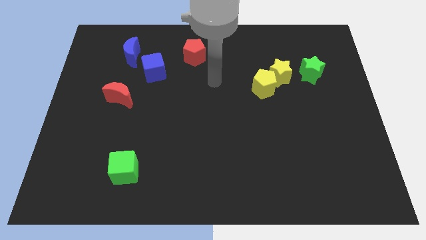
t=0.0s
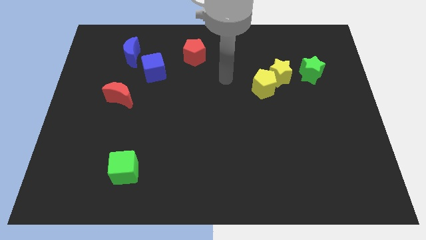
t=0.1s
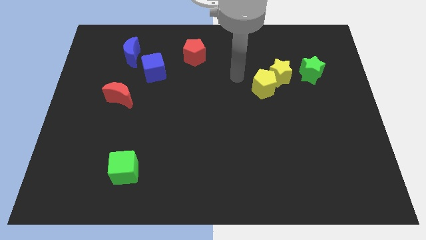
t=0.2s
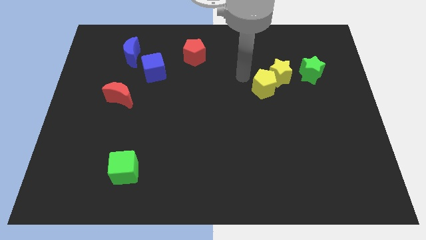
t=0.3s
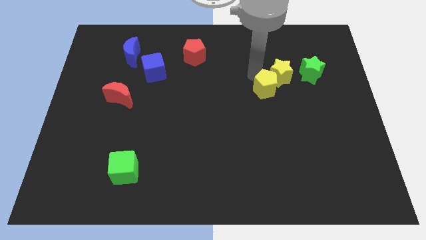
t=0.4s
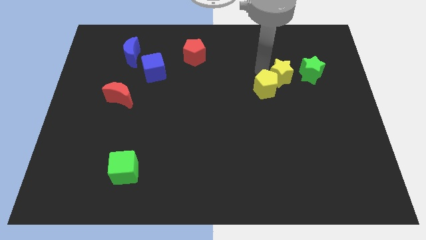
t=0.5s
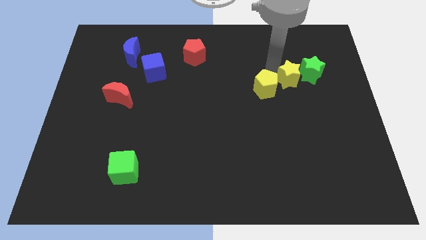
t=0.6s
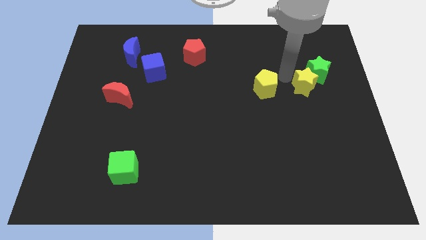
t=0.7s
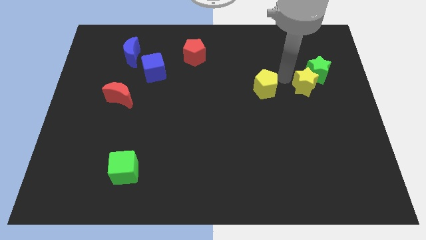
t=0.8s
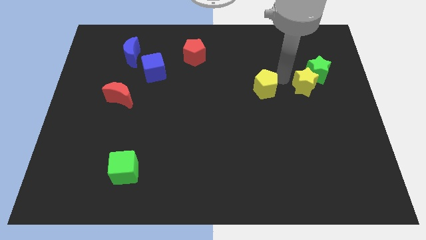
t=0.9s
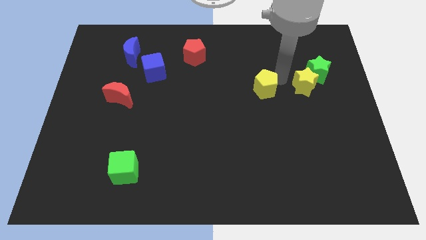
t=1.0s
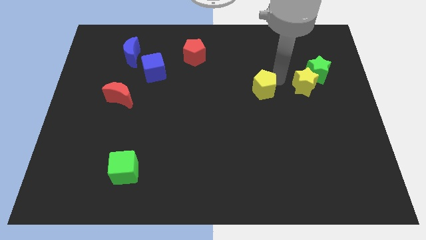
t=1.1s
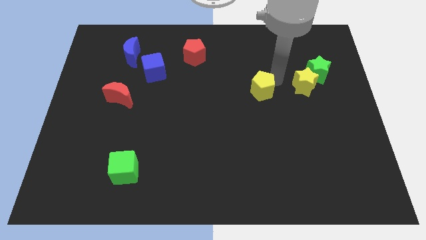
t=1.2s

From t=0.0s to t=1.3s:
move the yellow pentagon away from the yellow star

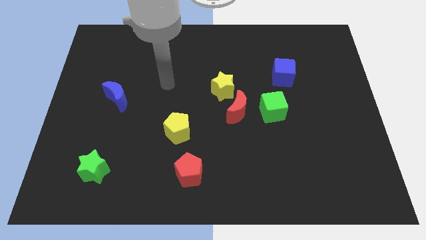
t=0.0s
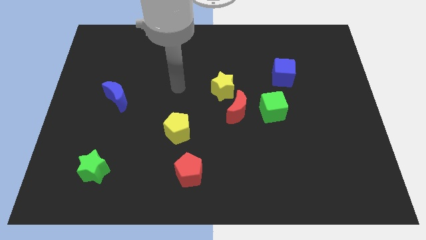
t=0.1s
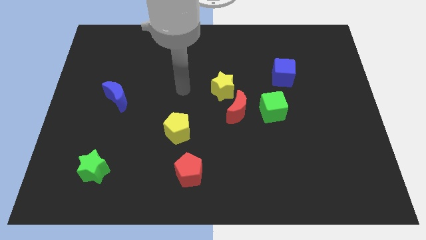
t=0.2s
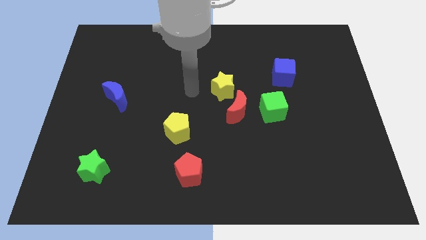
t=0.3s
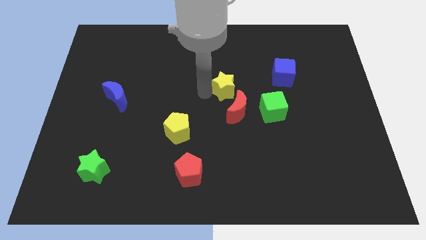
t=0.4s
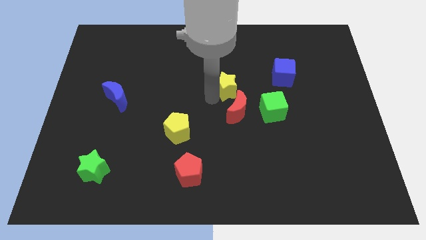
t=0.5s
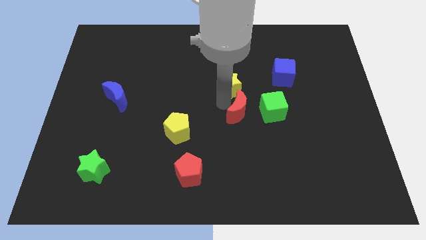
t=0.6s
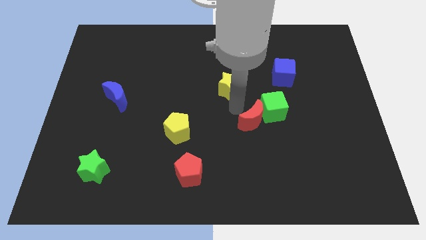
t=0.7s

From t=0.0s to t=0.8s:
pull the yellow star apart from the red moon

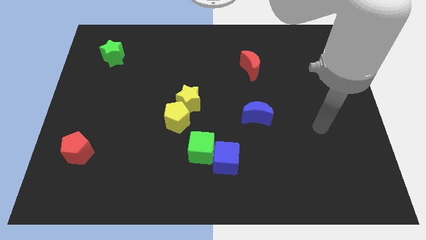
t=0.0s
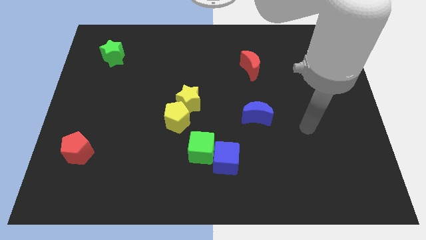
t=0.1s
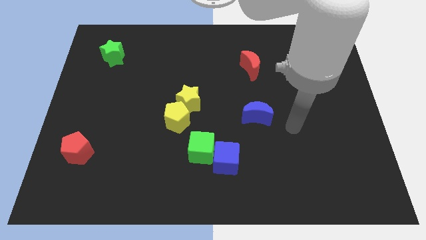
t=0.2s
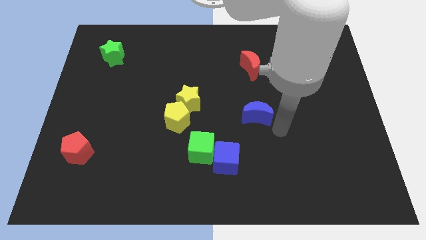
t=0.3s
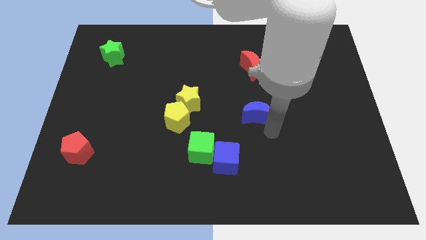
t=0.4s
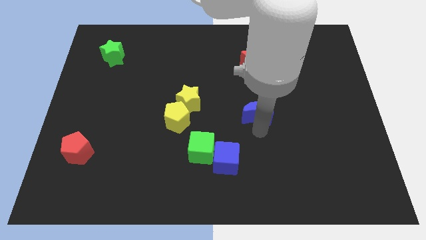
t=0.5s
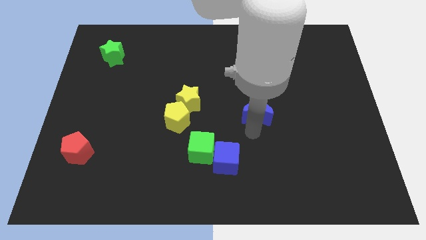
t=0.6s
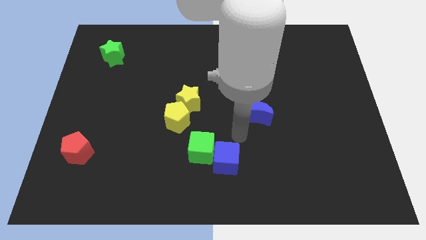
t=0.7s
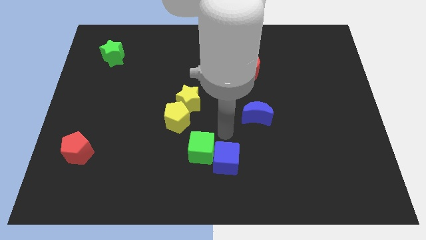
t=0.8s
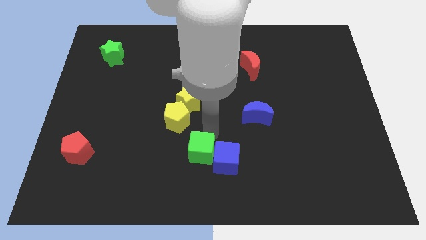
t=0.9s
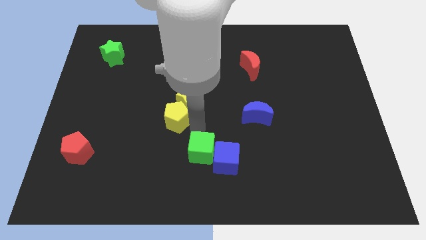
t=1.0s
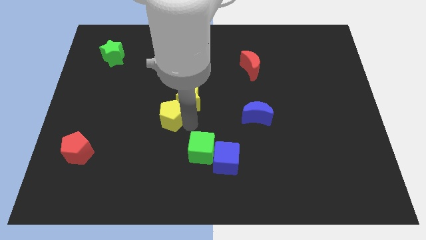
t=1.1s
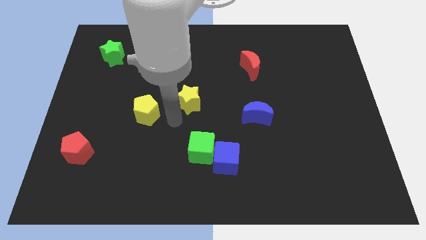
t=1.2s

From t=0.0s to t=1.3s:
pull the yellow star apart from the yellow pentagon

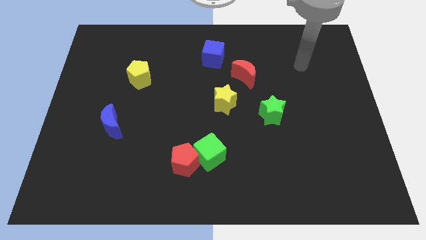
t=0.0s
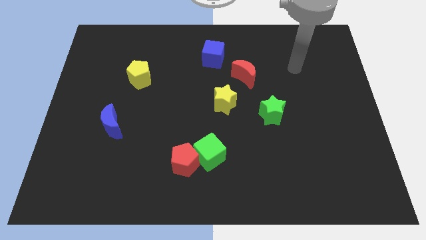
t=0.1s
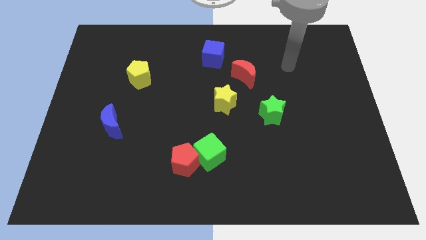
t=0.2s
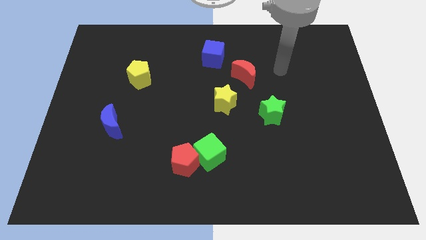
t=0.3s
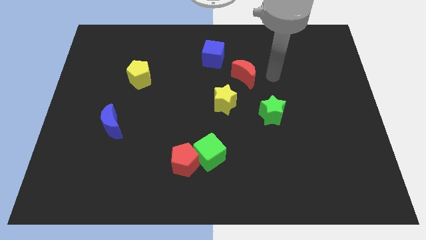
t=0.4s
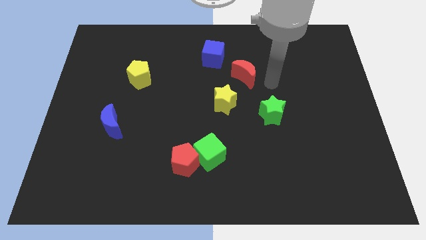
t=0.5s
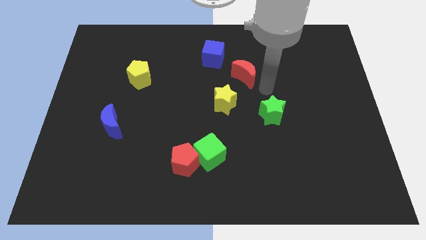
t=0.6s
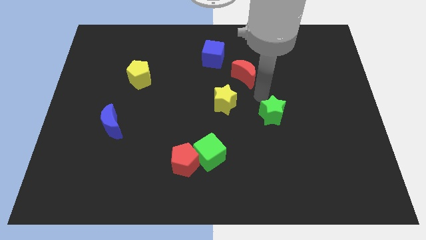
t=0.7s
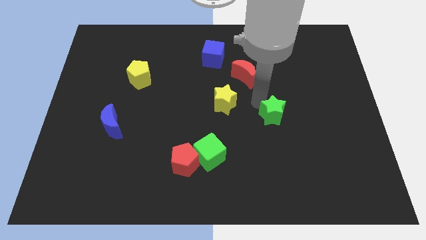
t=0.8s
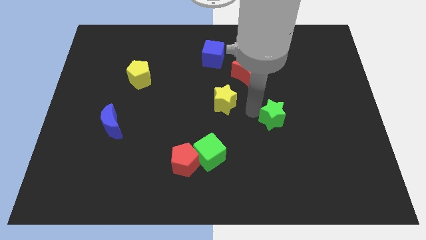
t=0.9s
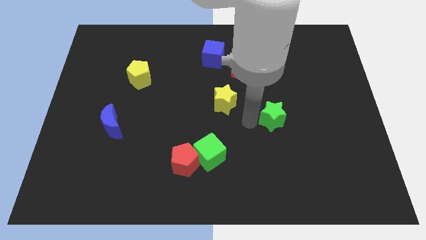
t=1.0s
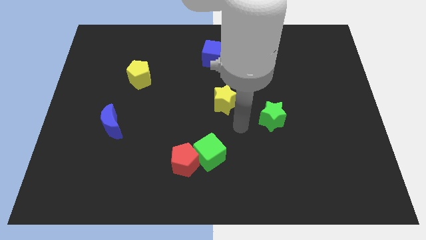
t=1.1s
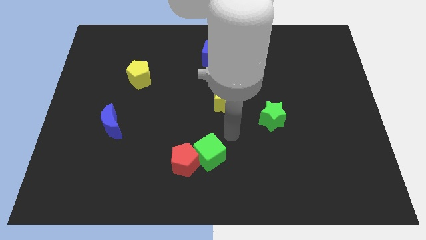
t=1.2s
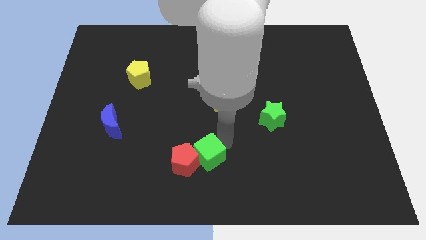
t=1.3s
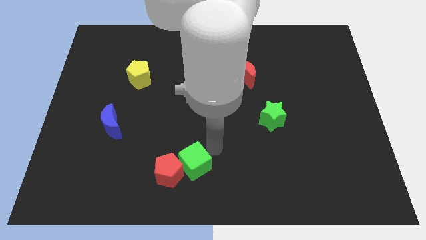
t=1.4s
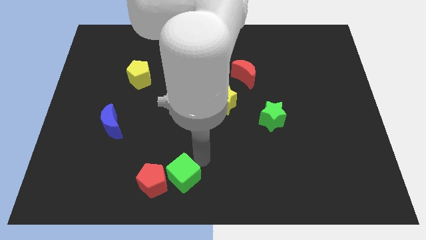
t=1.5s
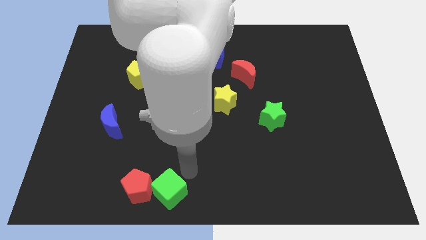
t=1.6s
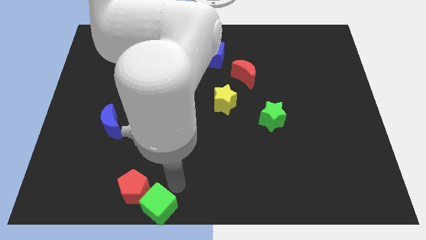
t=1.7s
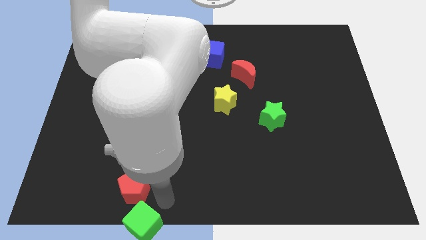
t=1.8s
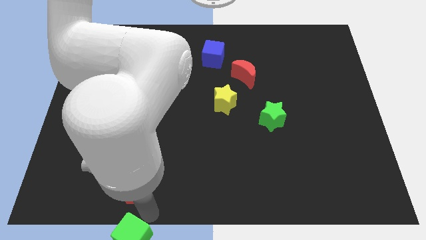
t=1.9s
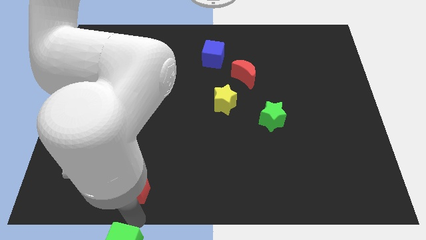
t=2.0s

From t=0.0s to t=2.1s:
separate the red pentagon from the green cube

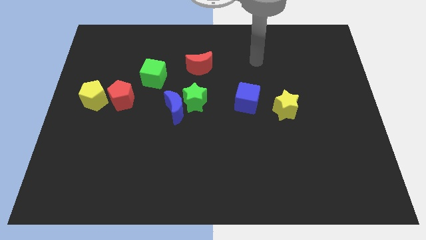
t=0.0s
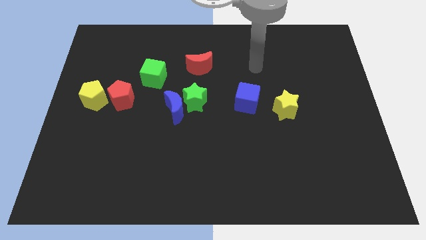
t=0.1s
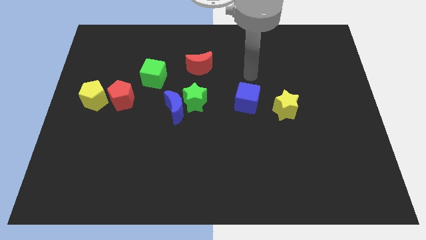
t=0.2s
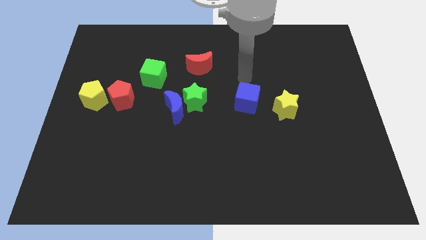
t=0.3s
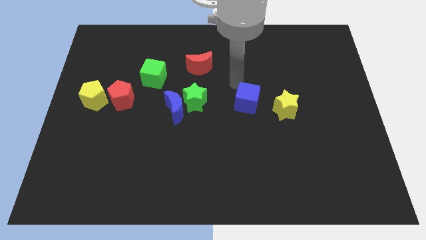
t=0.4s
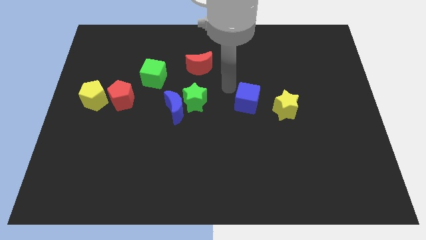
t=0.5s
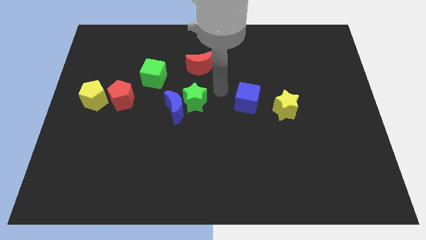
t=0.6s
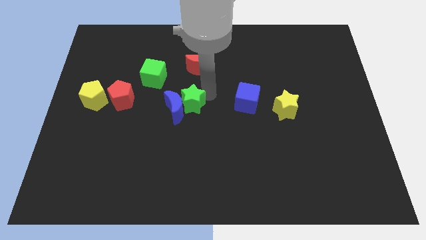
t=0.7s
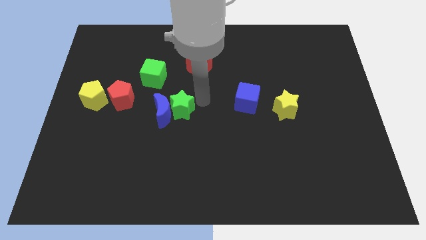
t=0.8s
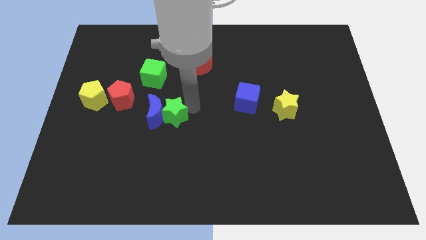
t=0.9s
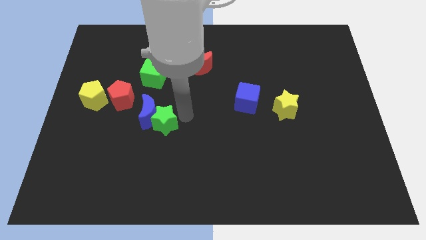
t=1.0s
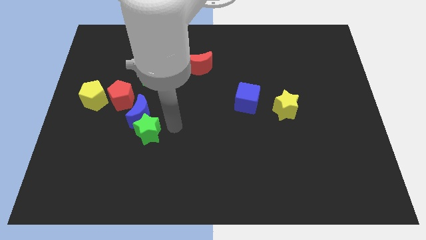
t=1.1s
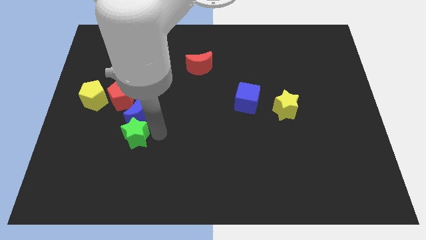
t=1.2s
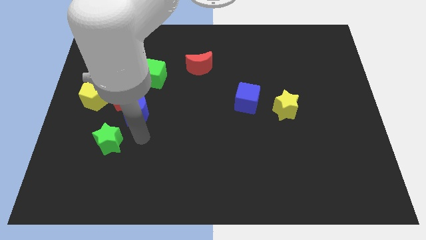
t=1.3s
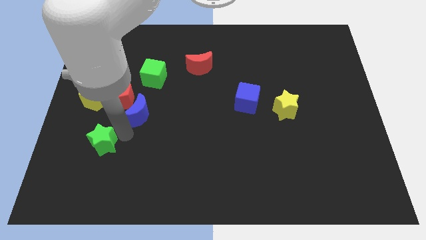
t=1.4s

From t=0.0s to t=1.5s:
separate the blue moon from the green star

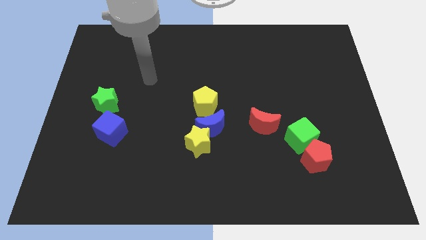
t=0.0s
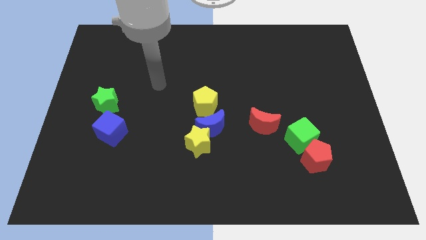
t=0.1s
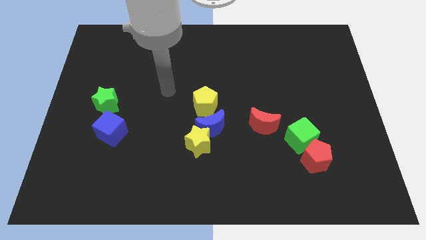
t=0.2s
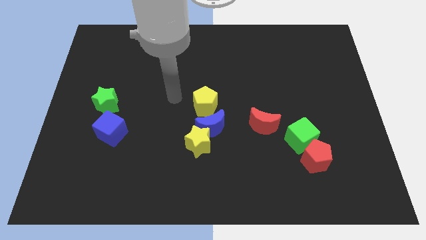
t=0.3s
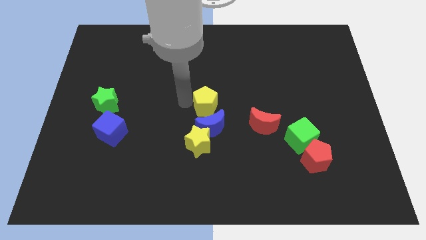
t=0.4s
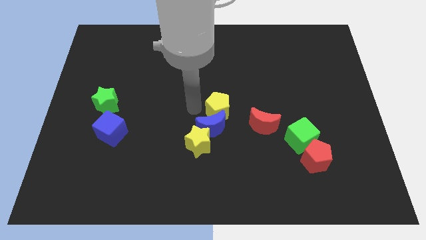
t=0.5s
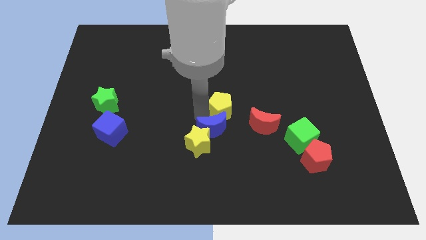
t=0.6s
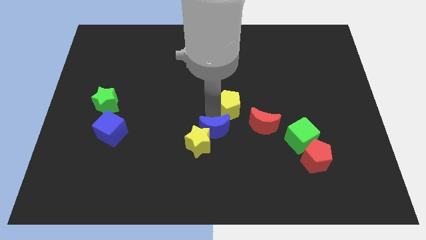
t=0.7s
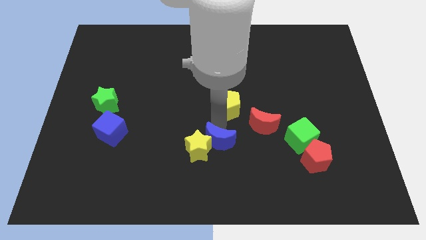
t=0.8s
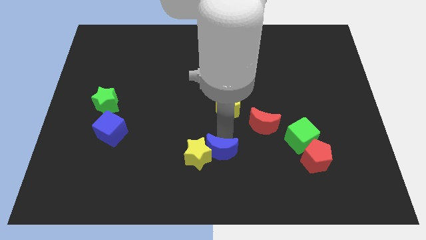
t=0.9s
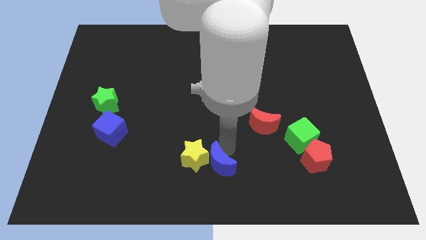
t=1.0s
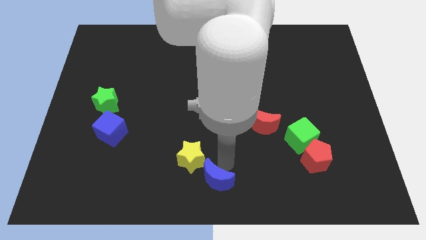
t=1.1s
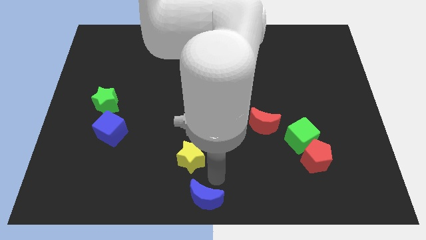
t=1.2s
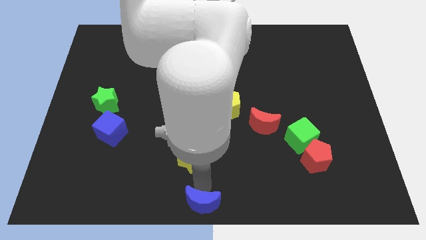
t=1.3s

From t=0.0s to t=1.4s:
move the yellow star away from the blue moon

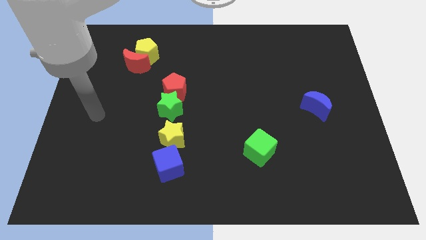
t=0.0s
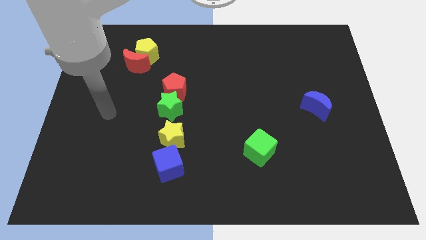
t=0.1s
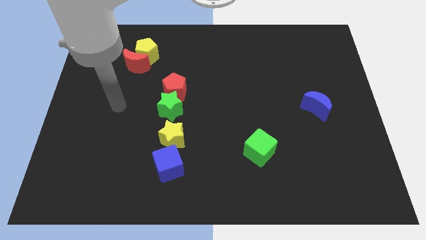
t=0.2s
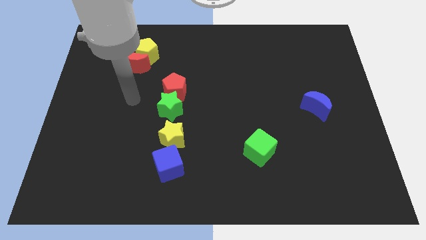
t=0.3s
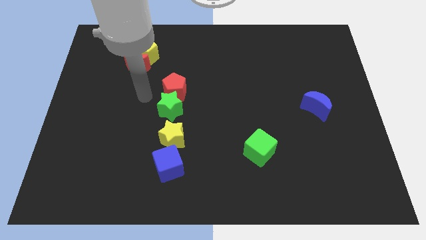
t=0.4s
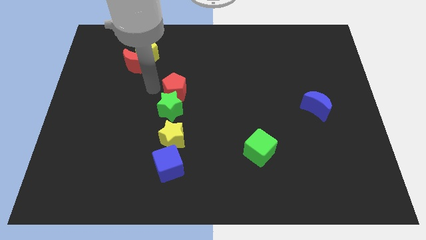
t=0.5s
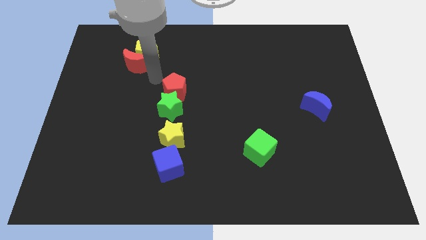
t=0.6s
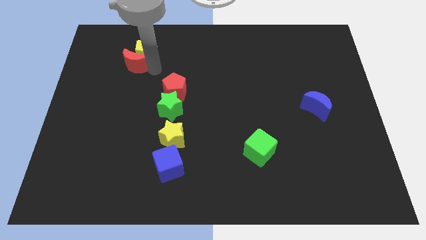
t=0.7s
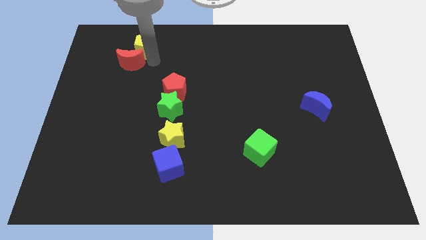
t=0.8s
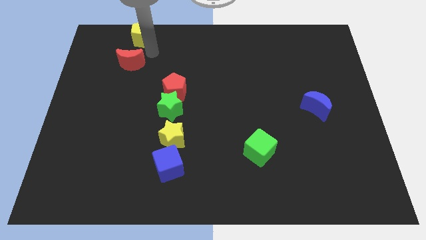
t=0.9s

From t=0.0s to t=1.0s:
move the red moon away from the yellow pentagon
